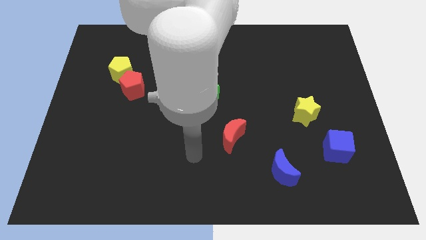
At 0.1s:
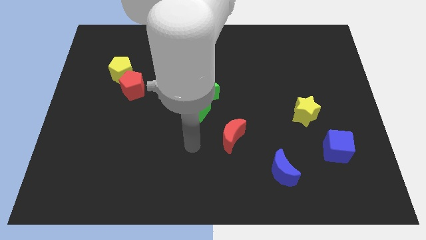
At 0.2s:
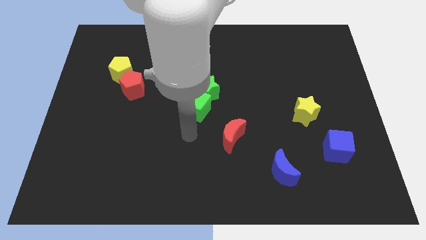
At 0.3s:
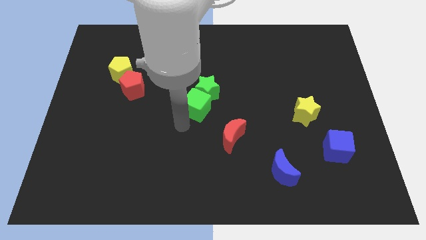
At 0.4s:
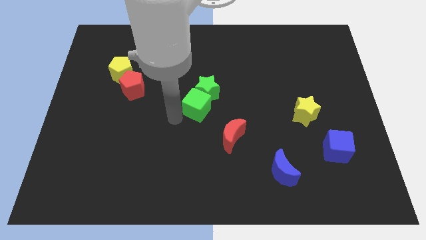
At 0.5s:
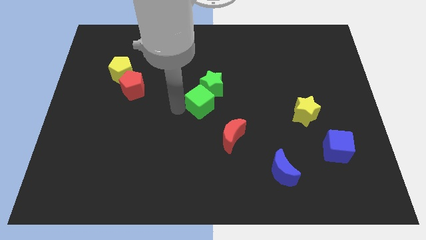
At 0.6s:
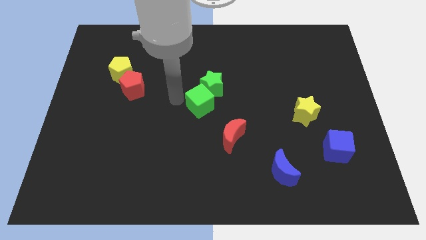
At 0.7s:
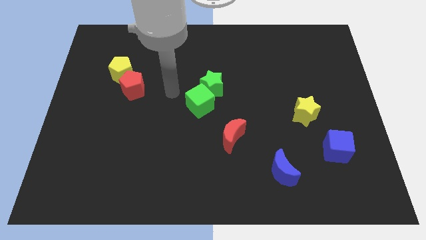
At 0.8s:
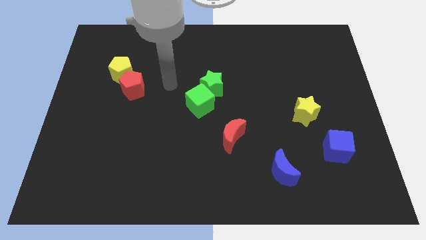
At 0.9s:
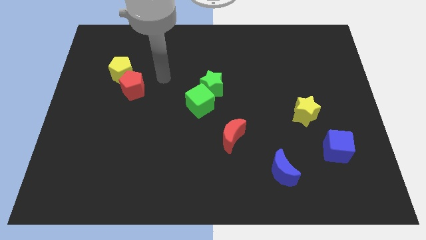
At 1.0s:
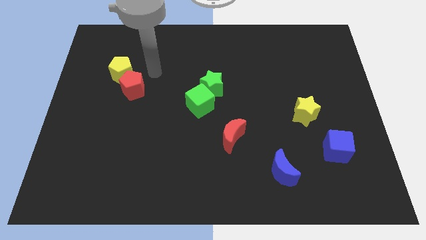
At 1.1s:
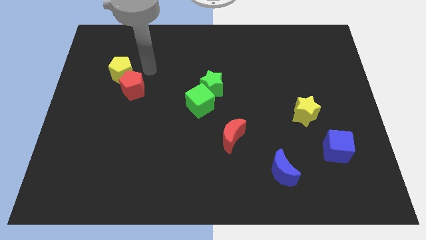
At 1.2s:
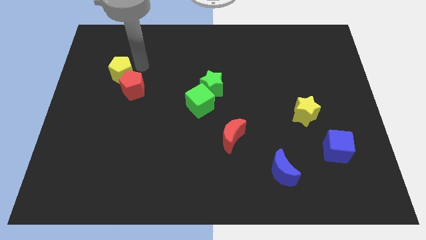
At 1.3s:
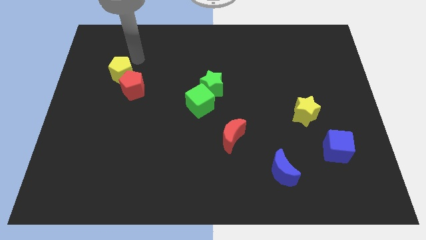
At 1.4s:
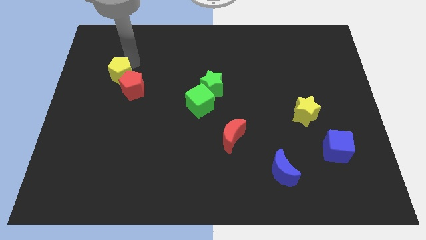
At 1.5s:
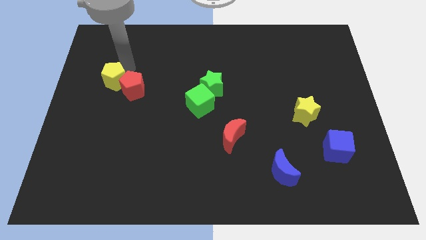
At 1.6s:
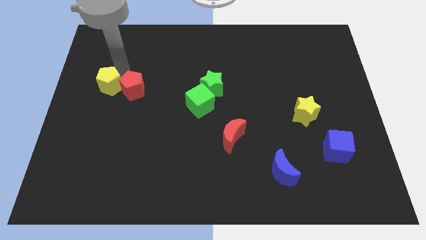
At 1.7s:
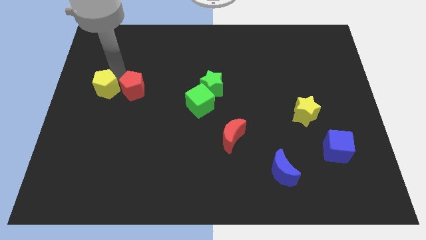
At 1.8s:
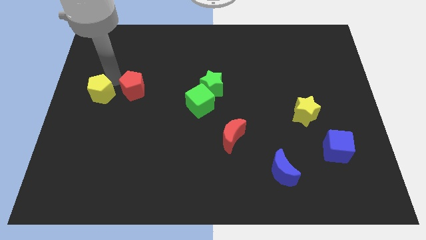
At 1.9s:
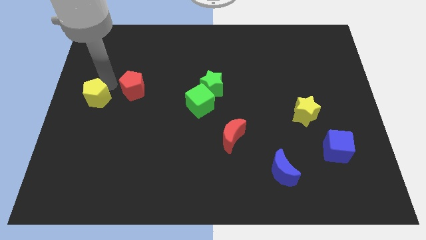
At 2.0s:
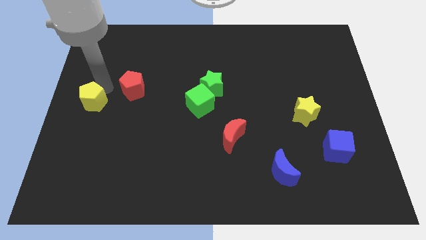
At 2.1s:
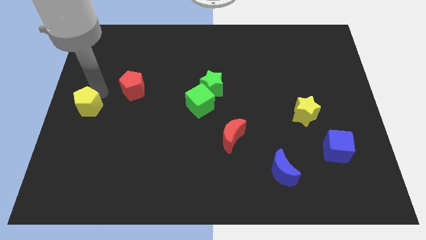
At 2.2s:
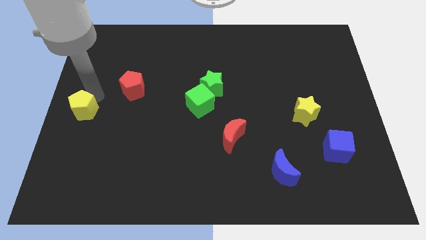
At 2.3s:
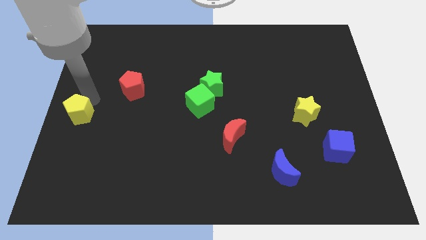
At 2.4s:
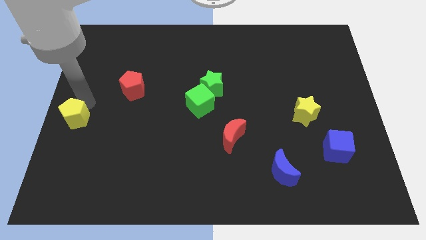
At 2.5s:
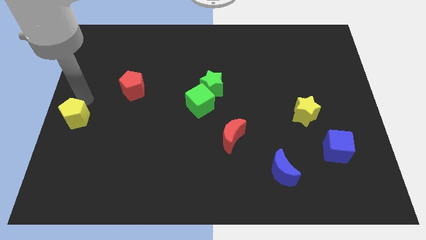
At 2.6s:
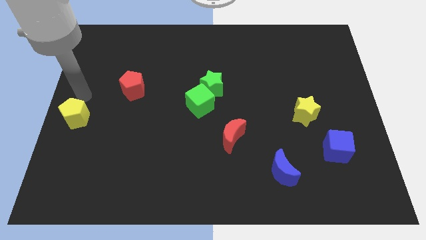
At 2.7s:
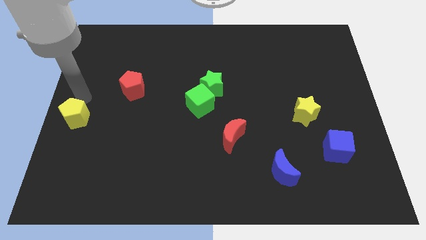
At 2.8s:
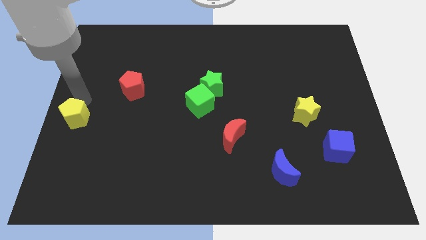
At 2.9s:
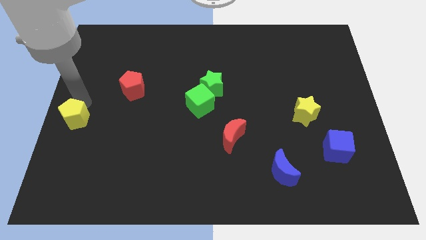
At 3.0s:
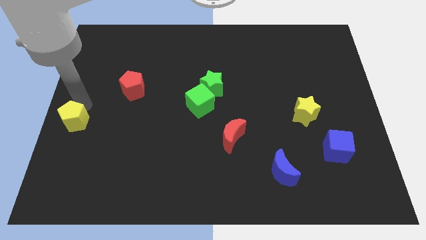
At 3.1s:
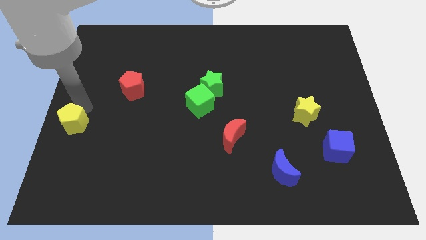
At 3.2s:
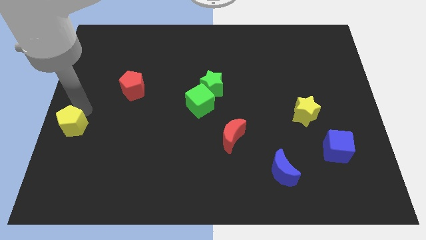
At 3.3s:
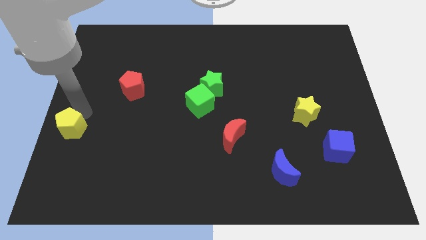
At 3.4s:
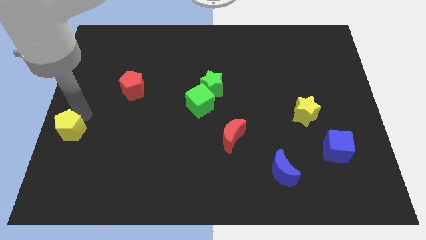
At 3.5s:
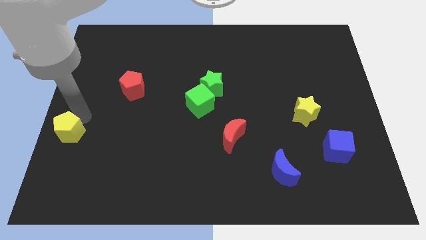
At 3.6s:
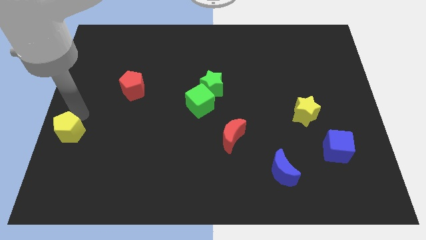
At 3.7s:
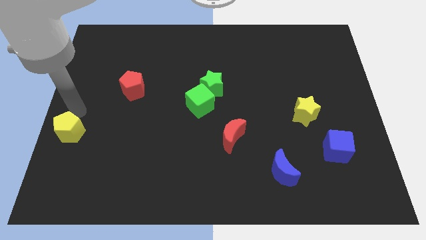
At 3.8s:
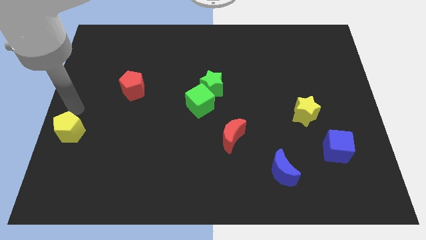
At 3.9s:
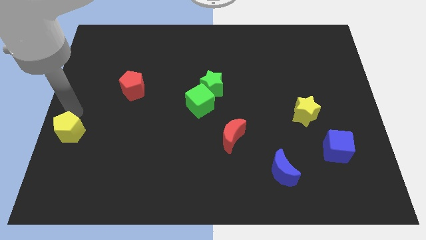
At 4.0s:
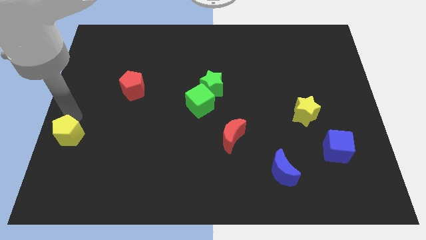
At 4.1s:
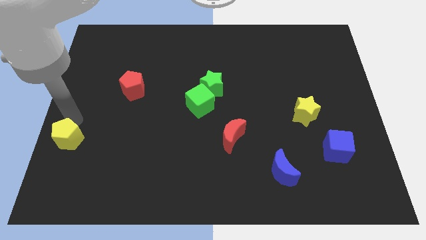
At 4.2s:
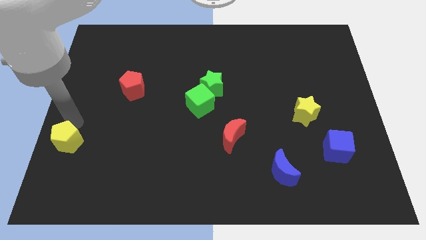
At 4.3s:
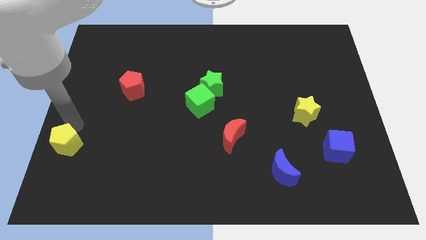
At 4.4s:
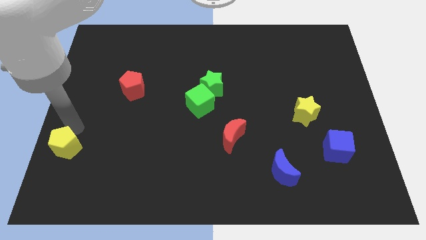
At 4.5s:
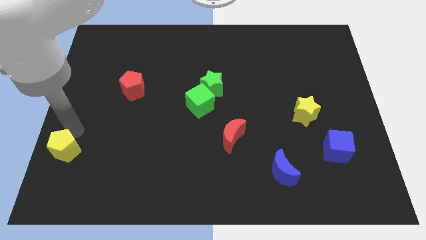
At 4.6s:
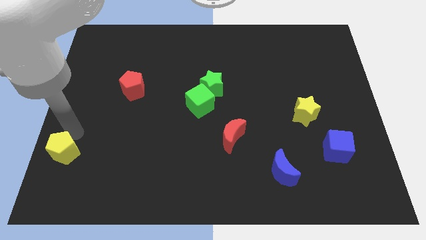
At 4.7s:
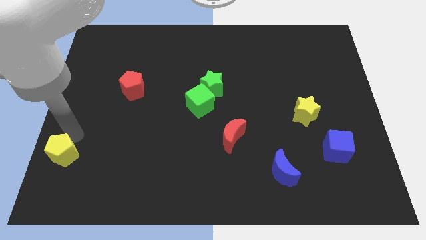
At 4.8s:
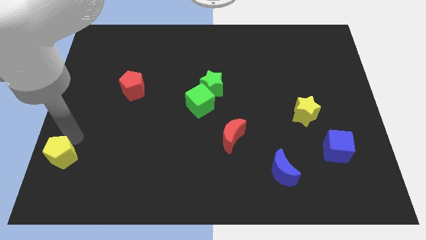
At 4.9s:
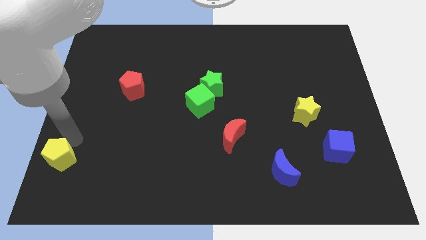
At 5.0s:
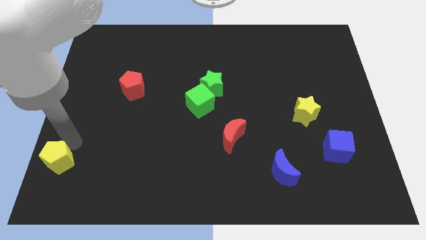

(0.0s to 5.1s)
put the yellow pentagon to the bottom left corner
